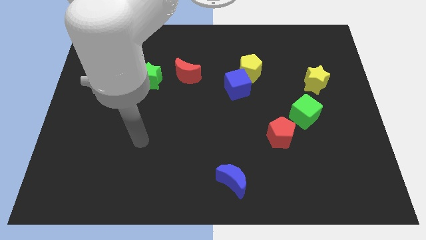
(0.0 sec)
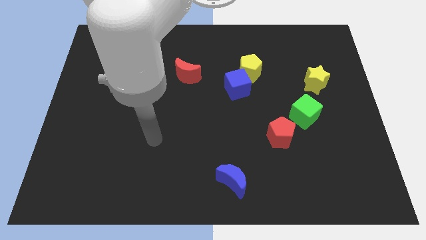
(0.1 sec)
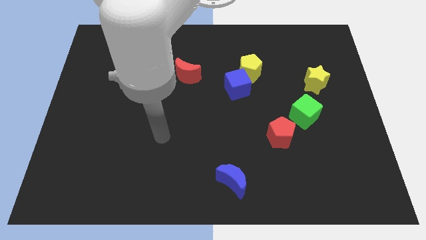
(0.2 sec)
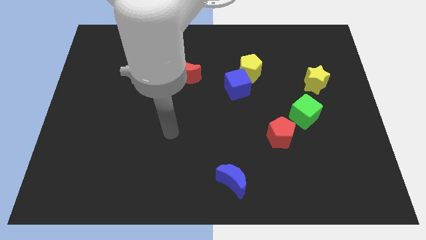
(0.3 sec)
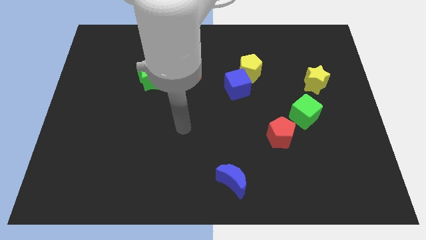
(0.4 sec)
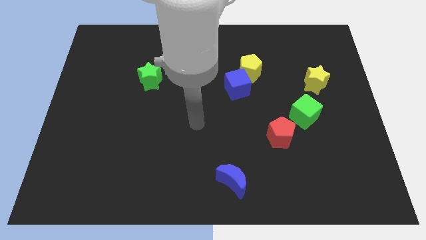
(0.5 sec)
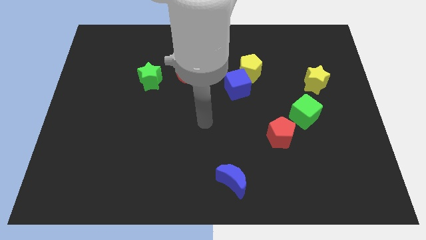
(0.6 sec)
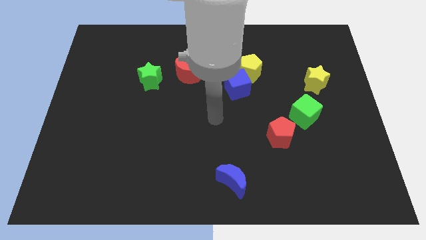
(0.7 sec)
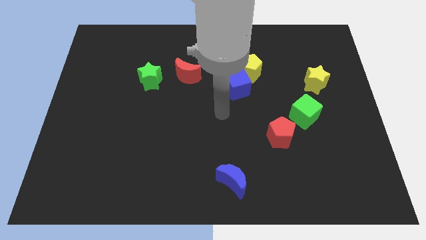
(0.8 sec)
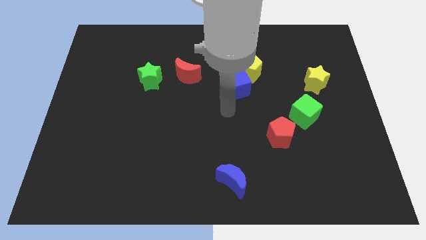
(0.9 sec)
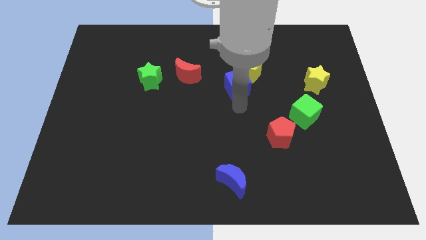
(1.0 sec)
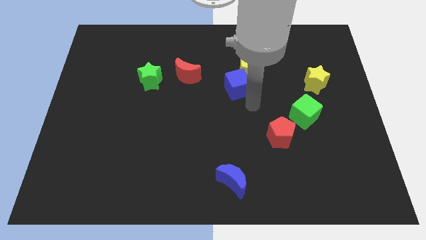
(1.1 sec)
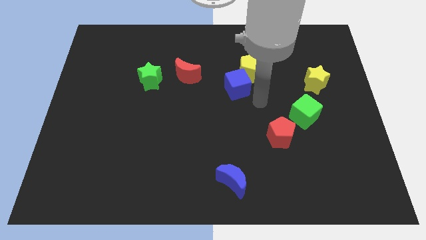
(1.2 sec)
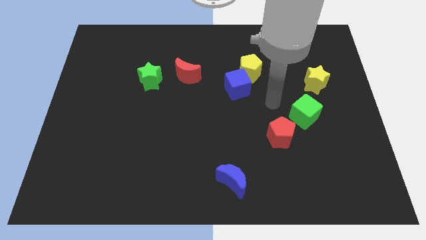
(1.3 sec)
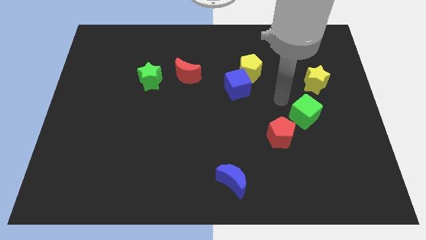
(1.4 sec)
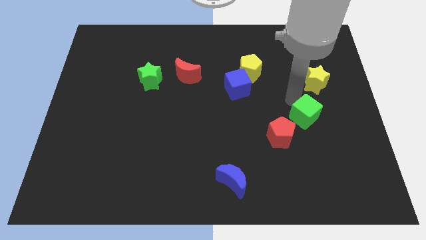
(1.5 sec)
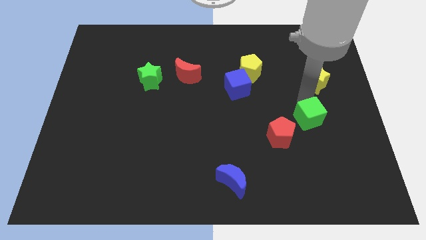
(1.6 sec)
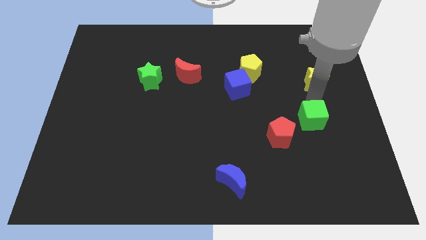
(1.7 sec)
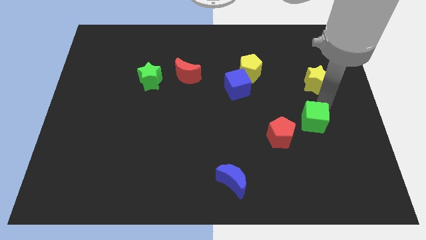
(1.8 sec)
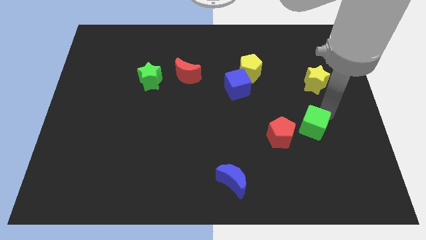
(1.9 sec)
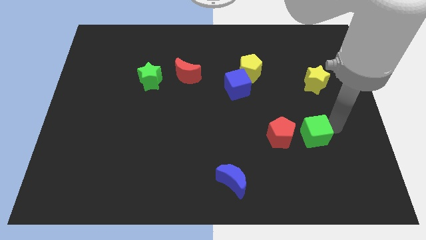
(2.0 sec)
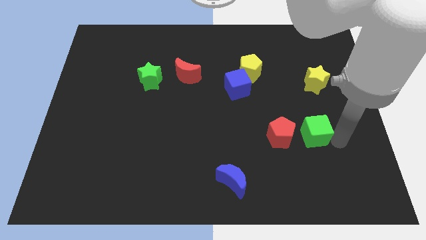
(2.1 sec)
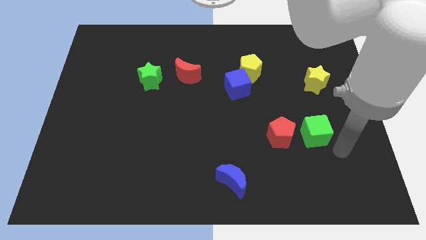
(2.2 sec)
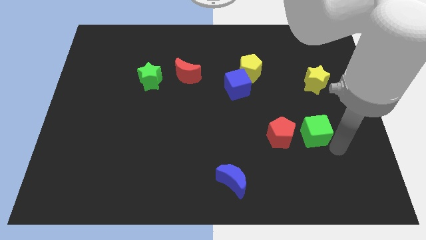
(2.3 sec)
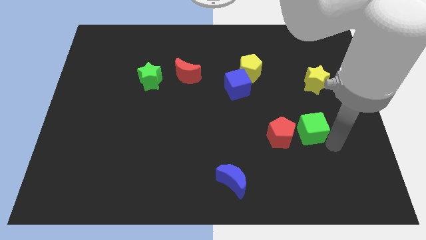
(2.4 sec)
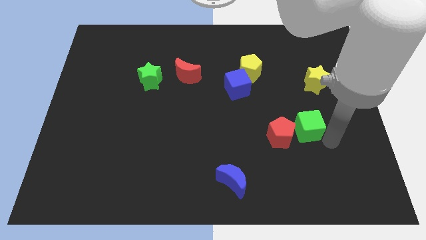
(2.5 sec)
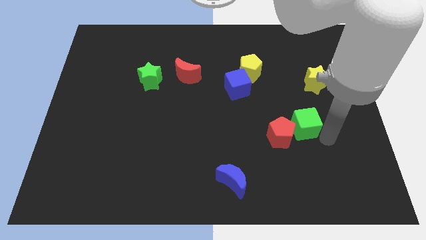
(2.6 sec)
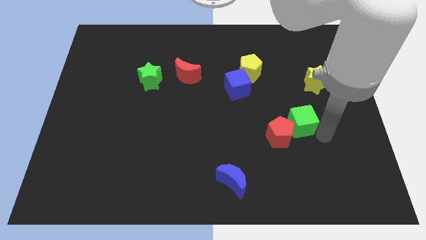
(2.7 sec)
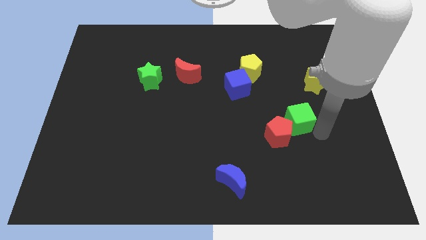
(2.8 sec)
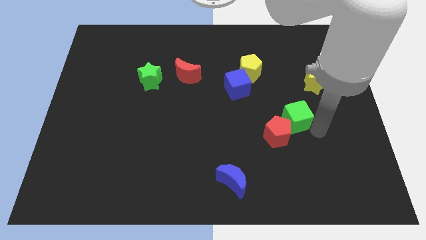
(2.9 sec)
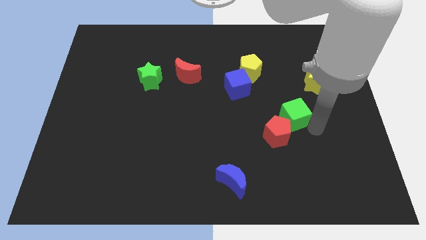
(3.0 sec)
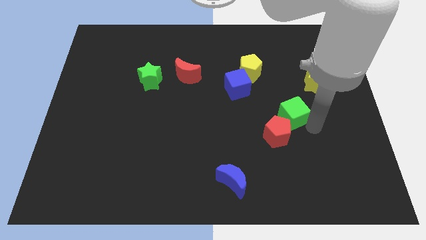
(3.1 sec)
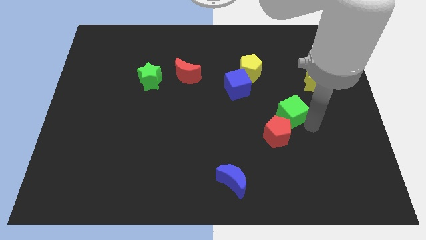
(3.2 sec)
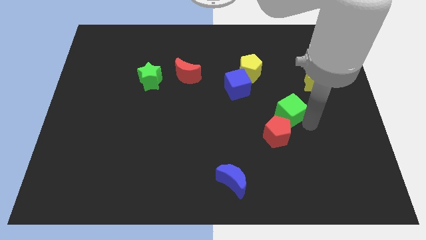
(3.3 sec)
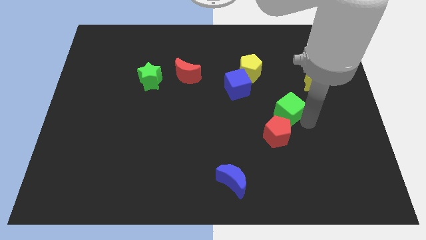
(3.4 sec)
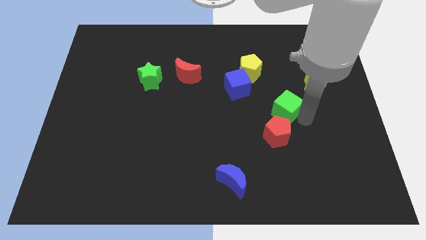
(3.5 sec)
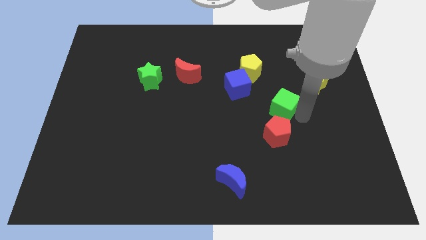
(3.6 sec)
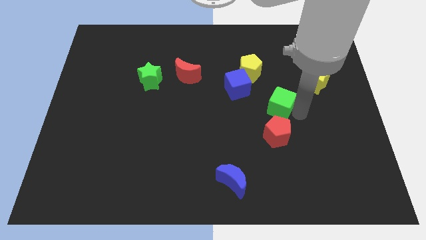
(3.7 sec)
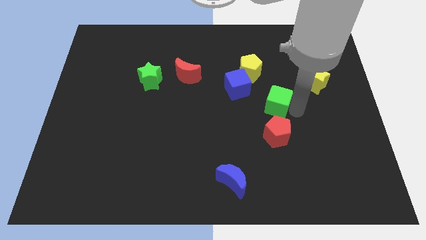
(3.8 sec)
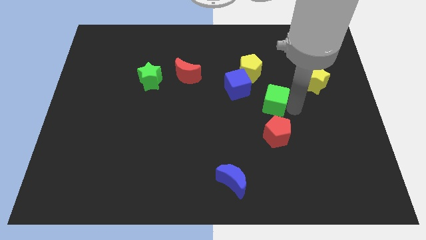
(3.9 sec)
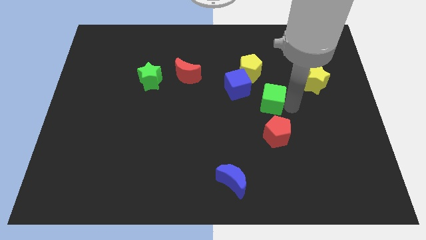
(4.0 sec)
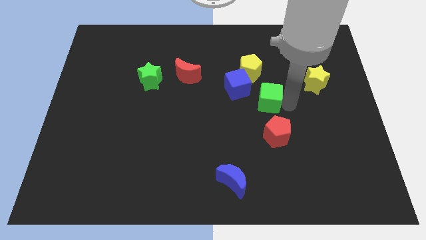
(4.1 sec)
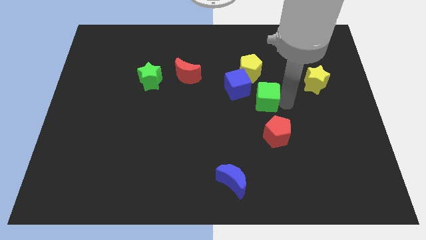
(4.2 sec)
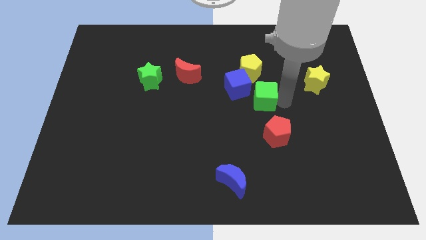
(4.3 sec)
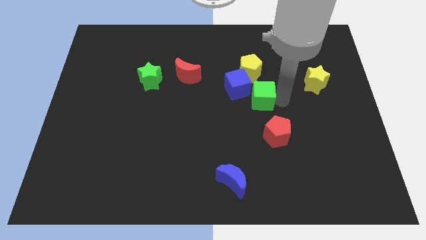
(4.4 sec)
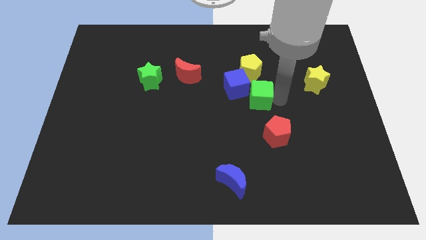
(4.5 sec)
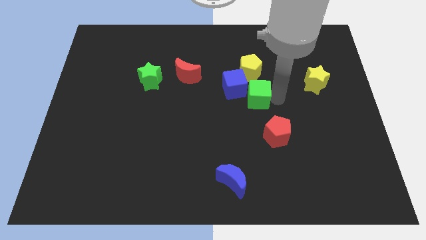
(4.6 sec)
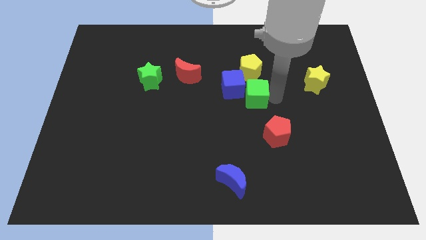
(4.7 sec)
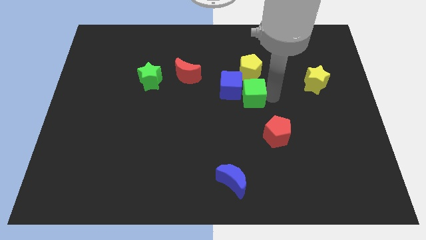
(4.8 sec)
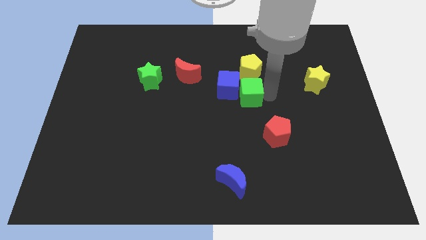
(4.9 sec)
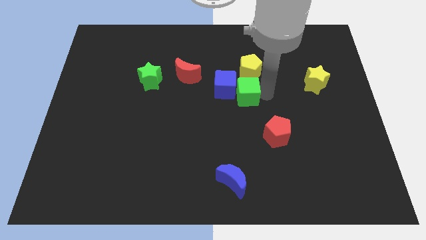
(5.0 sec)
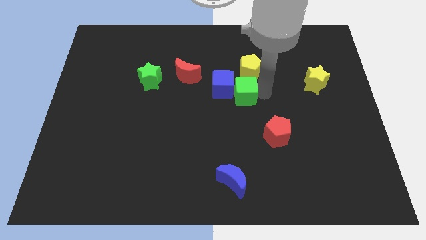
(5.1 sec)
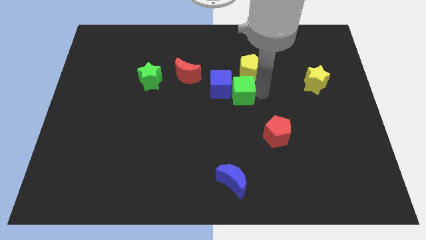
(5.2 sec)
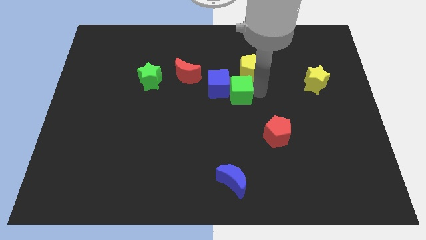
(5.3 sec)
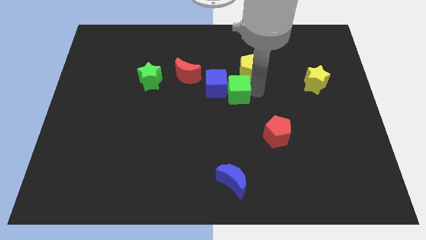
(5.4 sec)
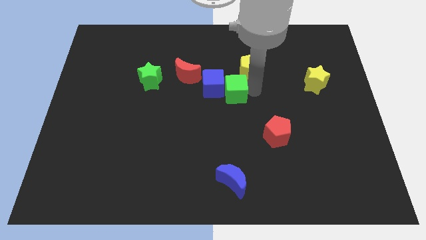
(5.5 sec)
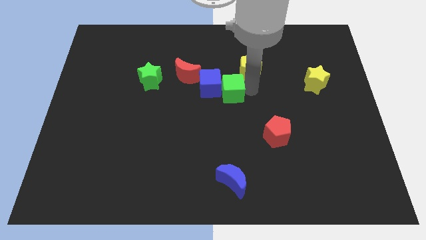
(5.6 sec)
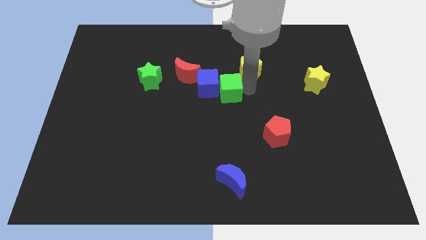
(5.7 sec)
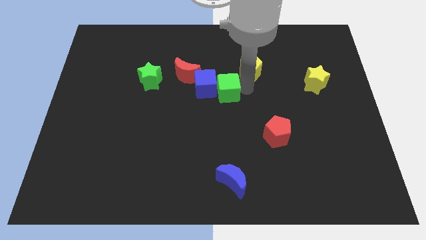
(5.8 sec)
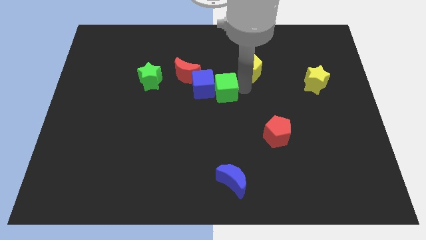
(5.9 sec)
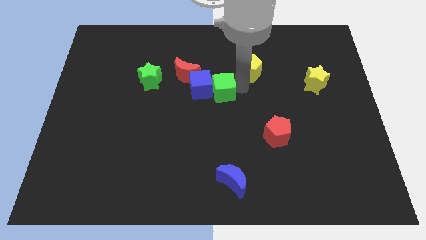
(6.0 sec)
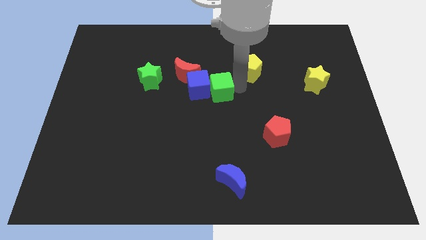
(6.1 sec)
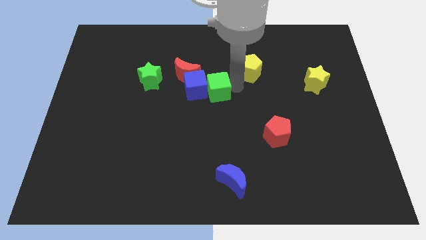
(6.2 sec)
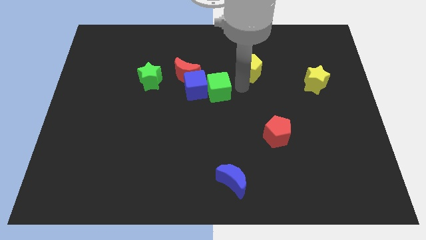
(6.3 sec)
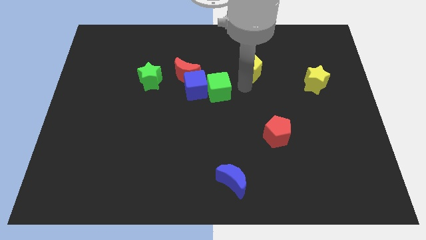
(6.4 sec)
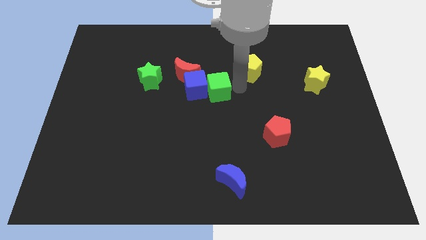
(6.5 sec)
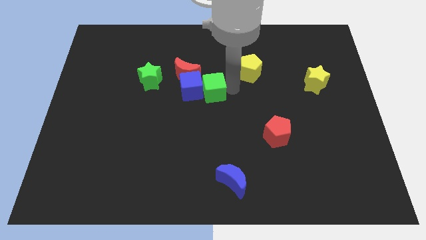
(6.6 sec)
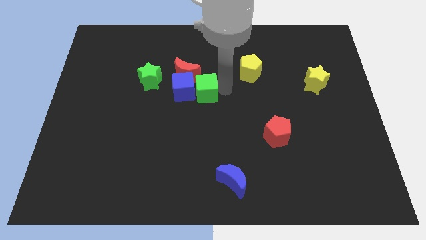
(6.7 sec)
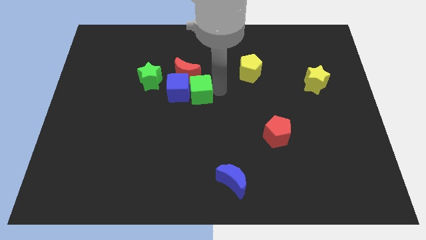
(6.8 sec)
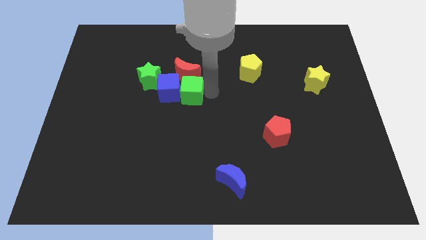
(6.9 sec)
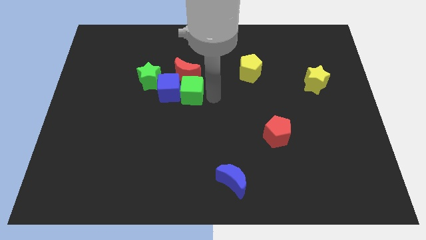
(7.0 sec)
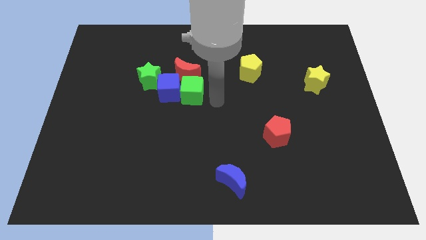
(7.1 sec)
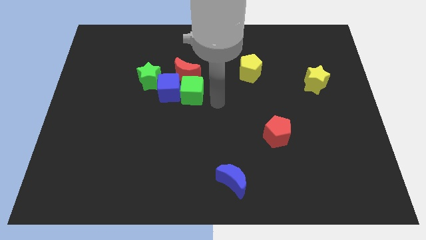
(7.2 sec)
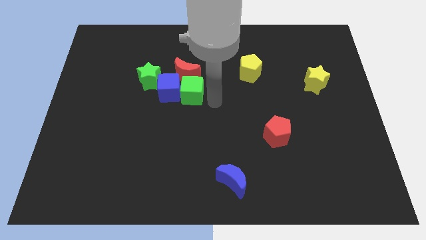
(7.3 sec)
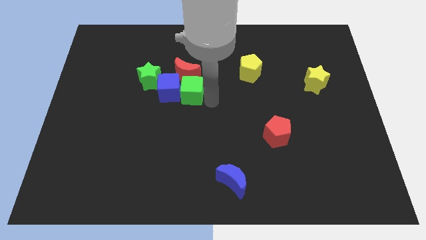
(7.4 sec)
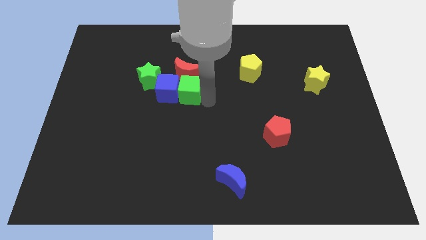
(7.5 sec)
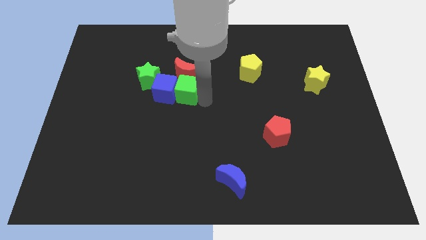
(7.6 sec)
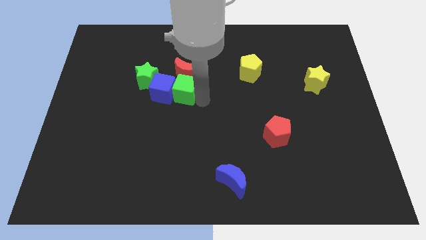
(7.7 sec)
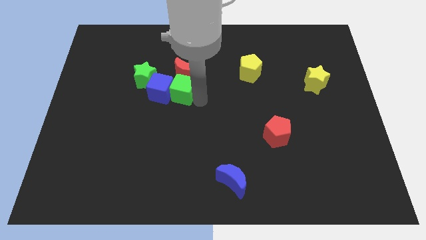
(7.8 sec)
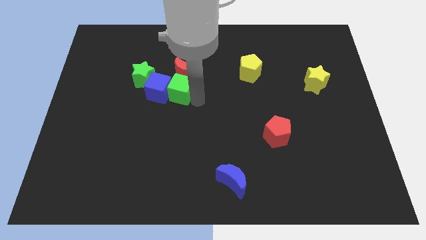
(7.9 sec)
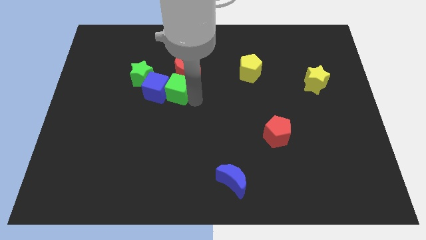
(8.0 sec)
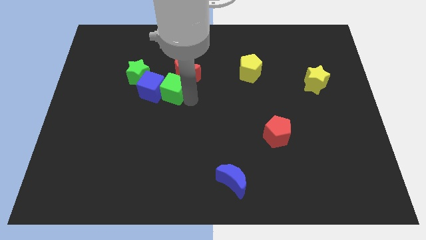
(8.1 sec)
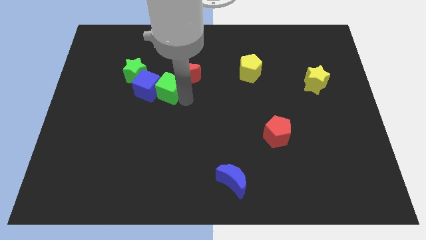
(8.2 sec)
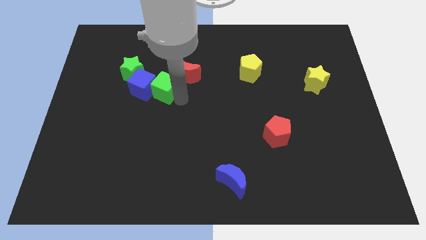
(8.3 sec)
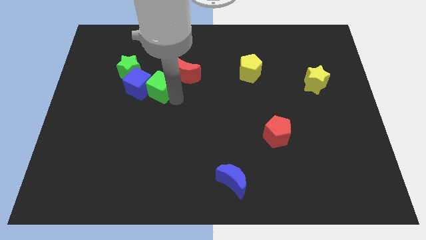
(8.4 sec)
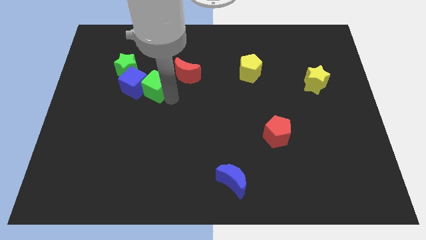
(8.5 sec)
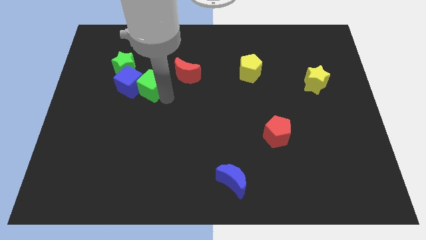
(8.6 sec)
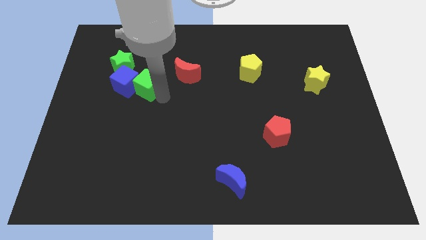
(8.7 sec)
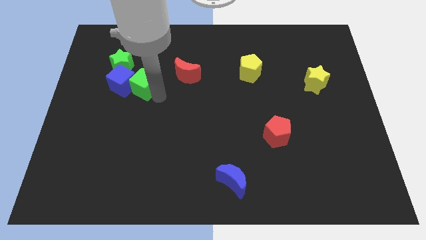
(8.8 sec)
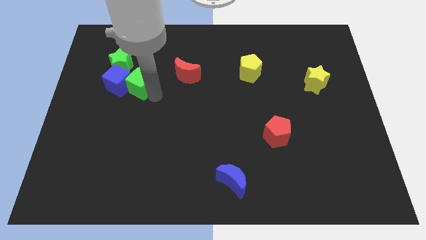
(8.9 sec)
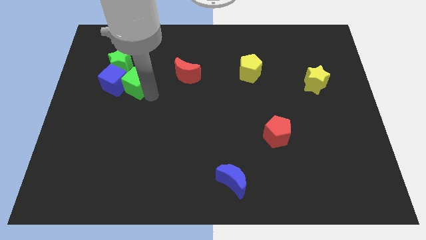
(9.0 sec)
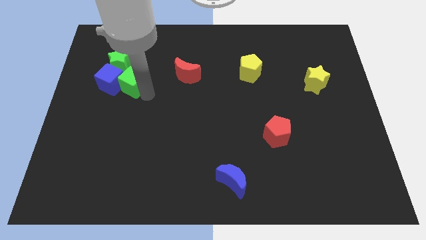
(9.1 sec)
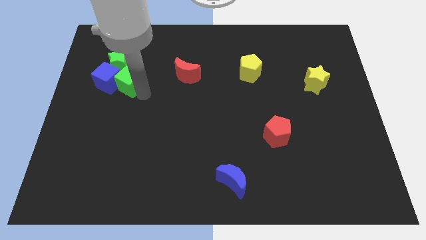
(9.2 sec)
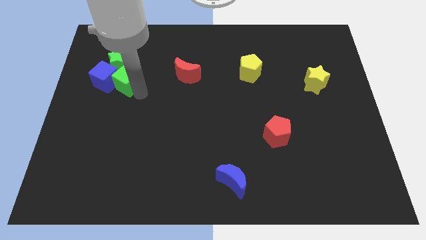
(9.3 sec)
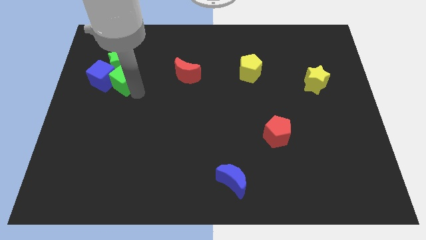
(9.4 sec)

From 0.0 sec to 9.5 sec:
move the green cube towards the green star
